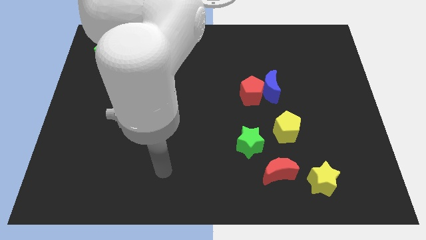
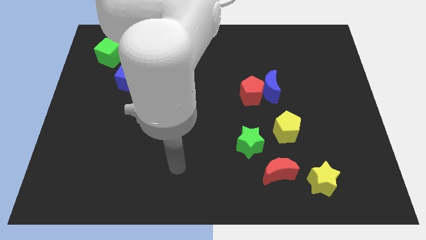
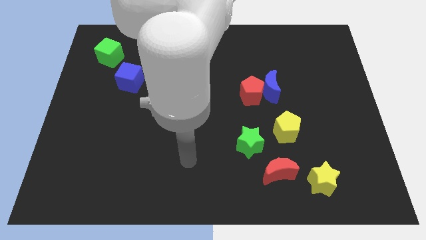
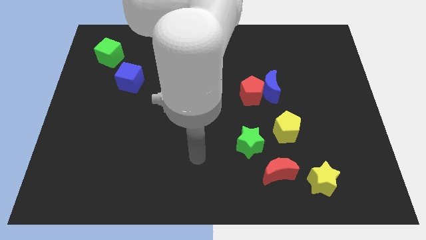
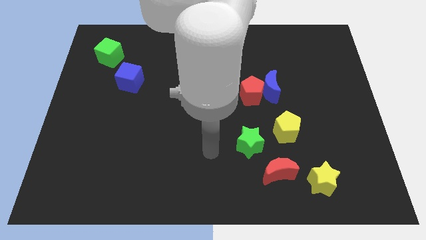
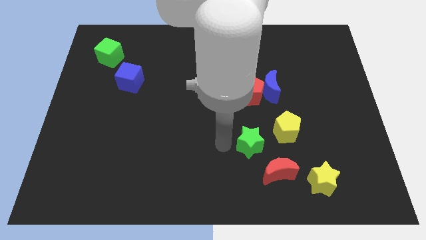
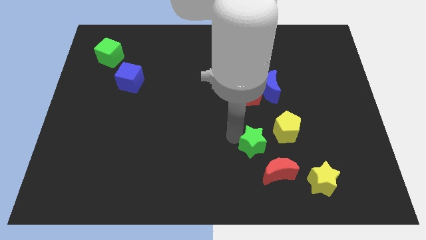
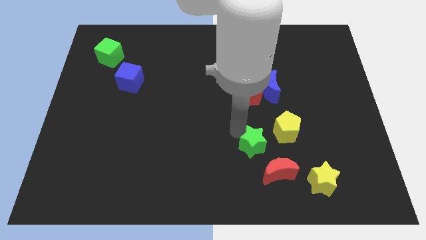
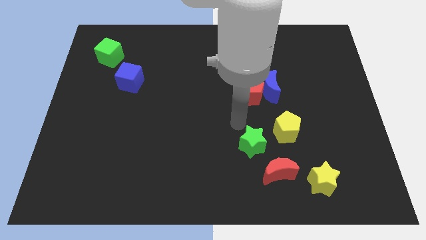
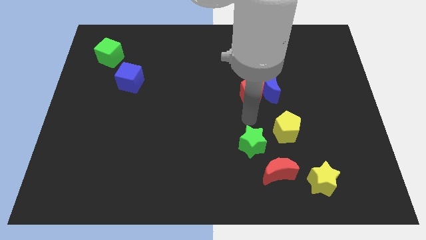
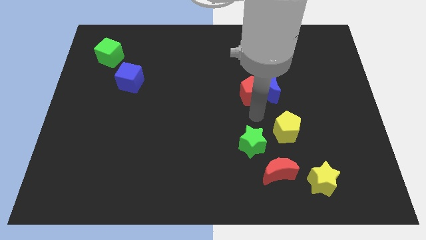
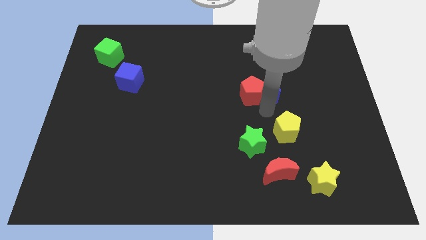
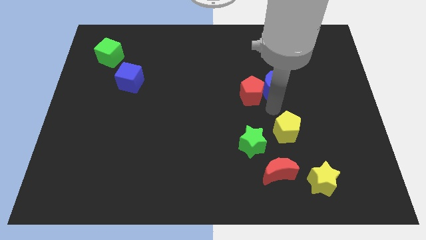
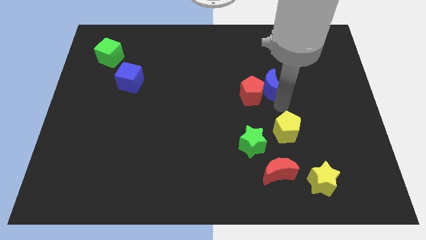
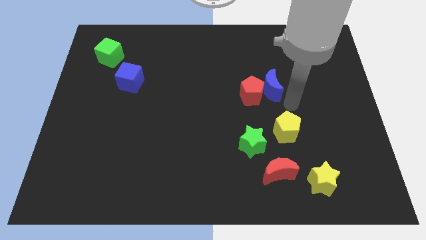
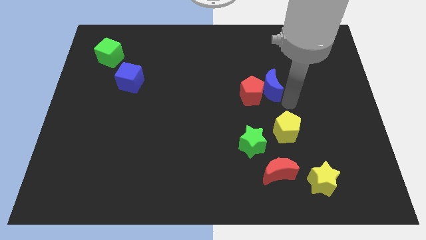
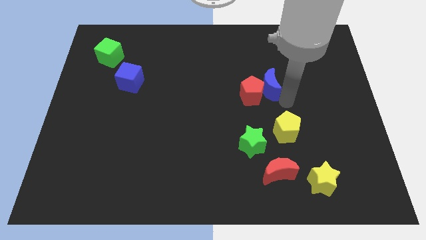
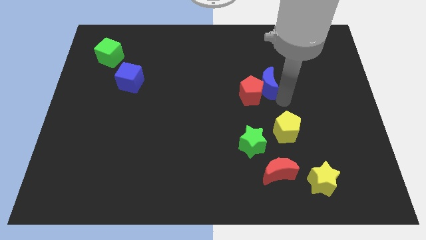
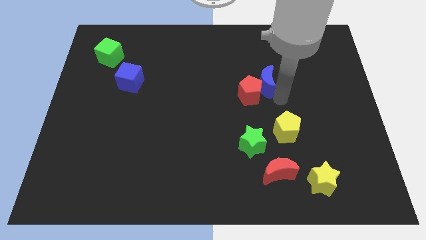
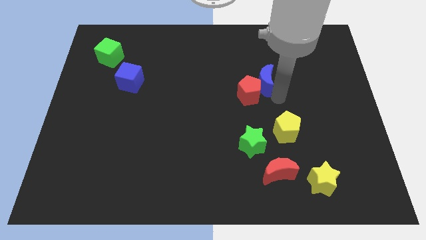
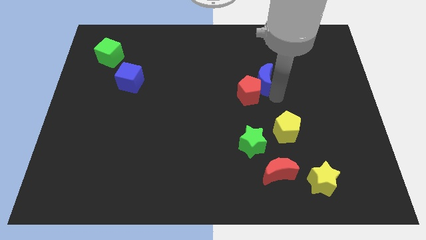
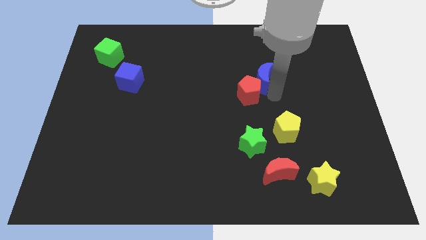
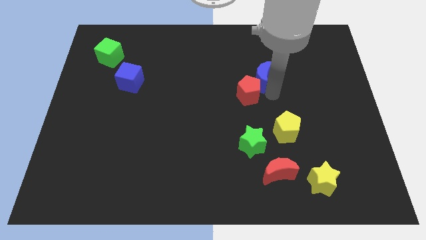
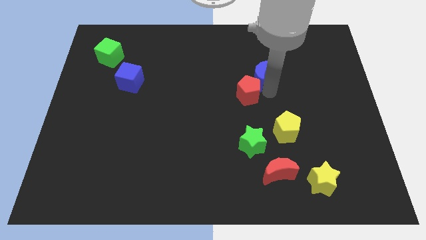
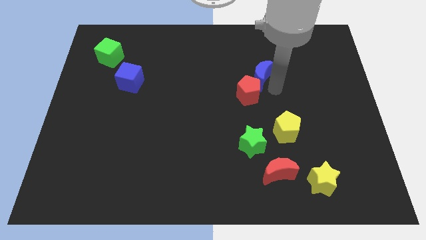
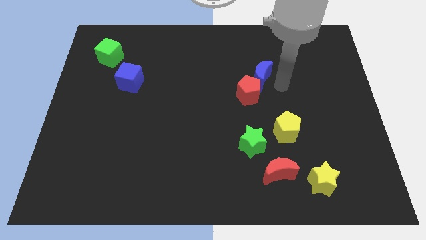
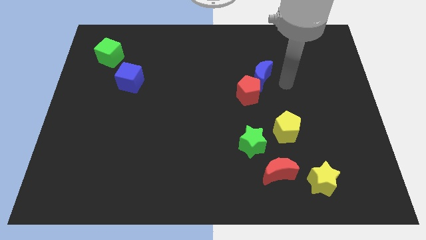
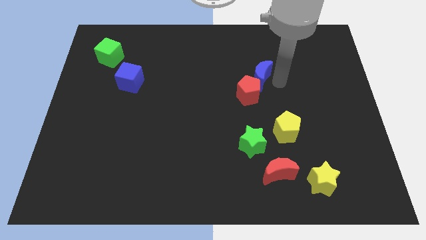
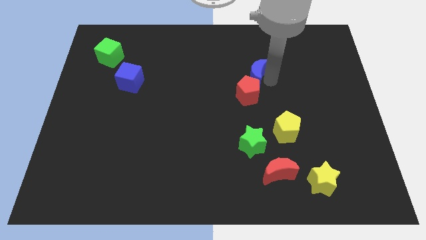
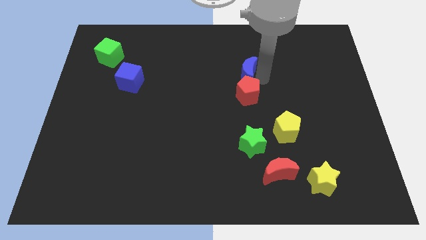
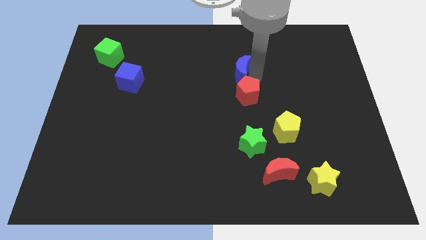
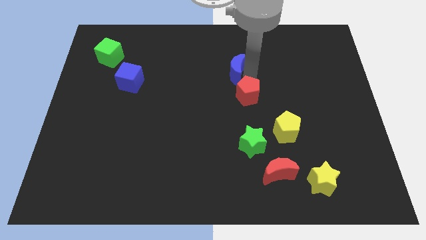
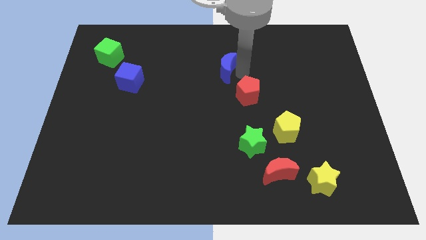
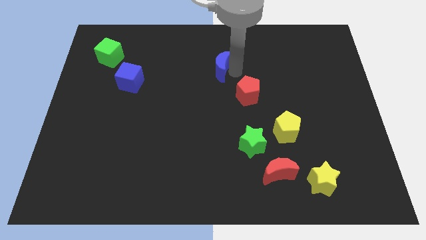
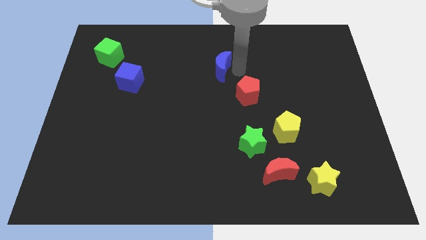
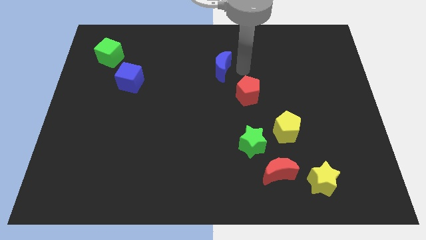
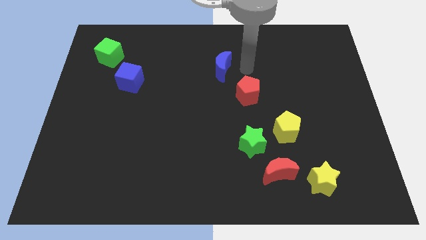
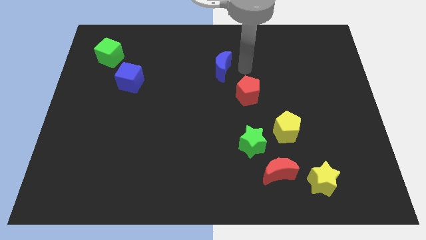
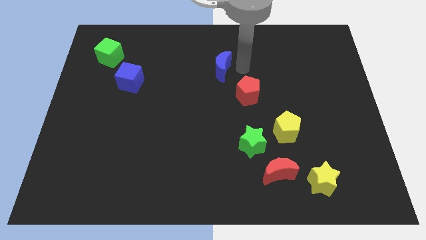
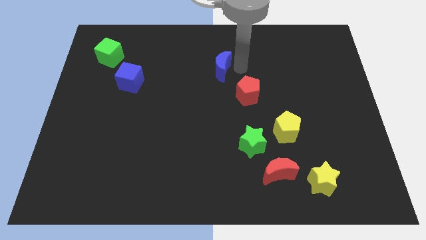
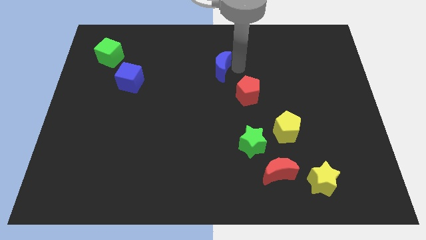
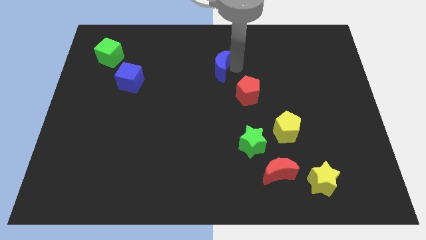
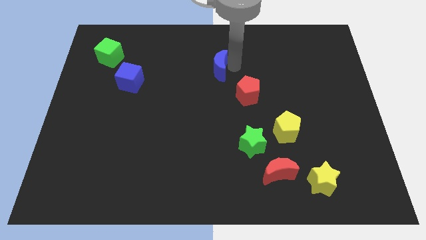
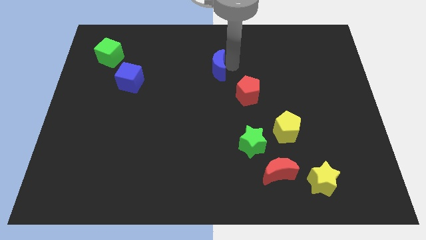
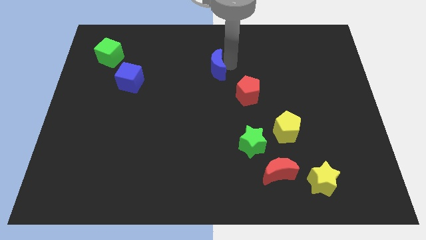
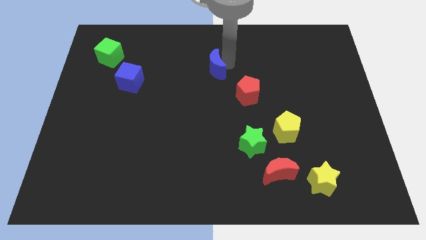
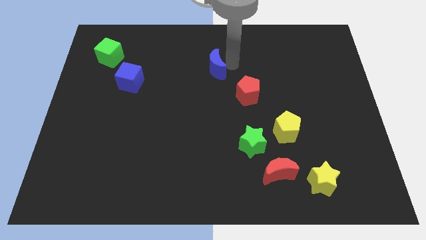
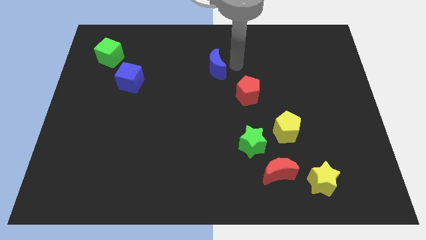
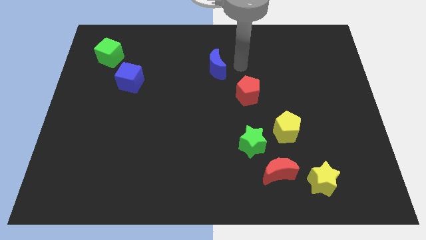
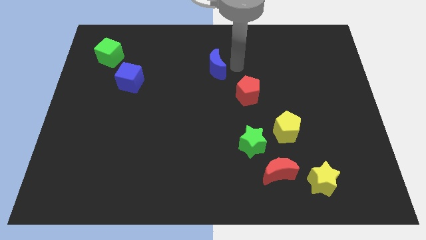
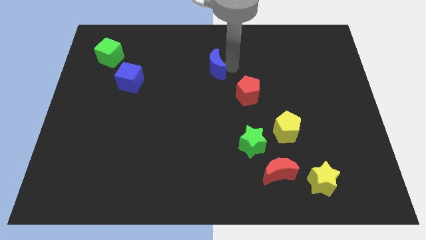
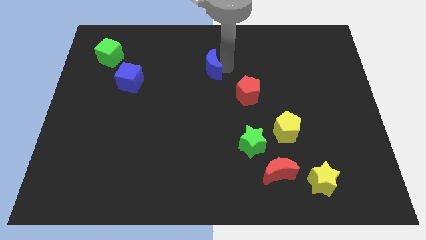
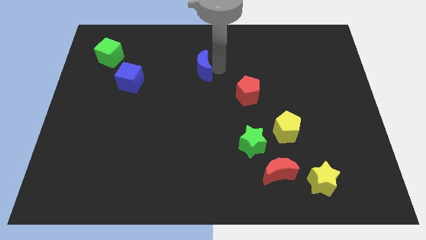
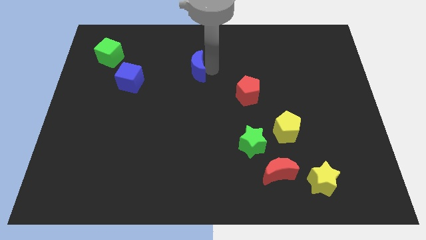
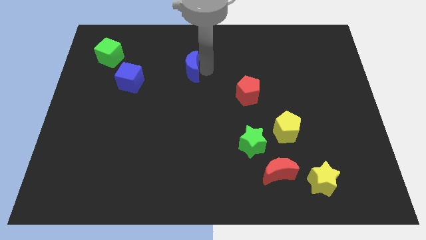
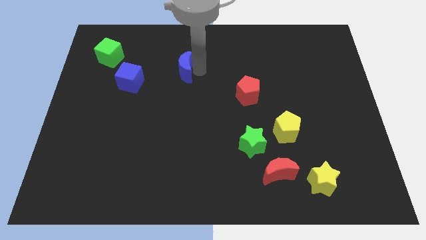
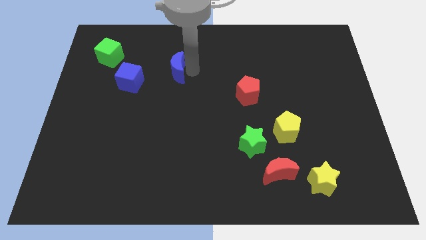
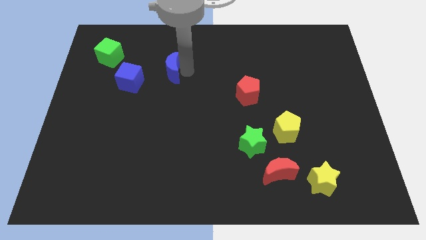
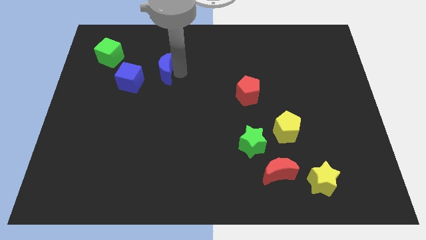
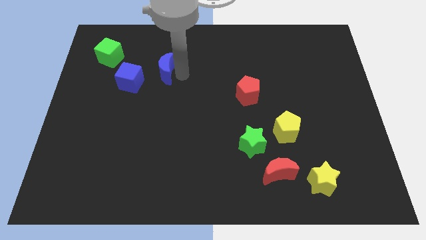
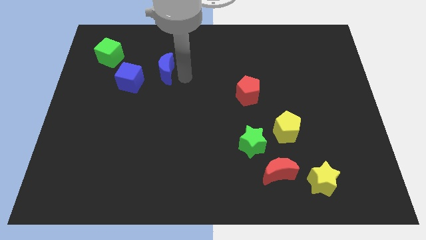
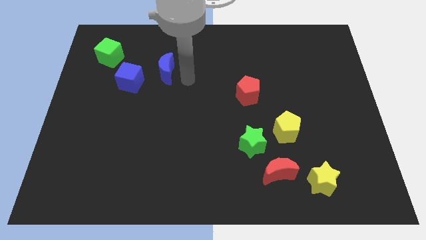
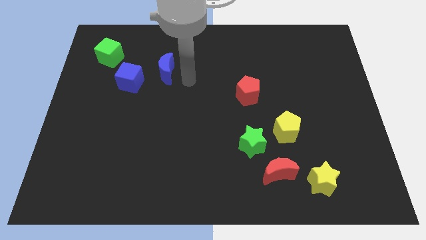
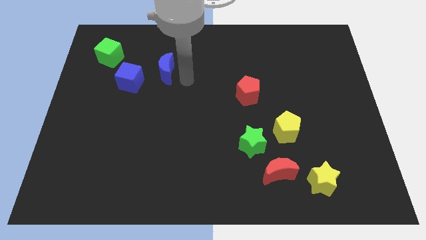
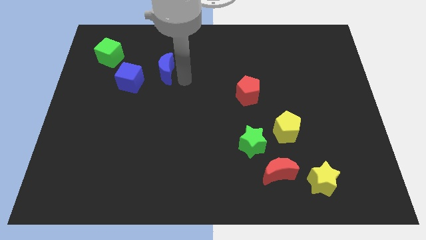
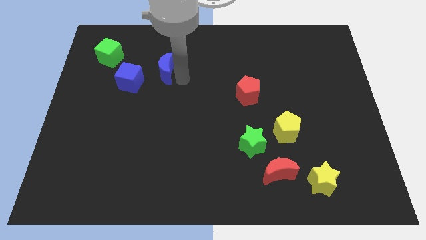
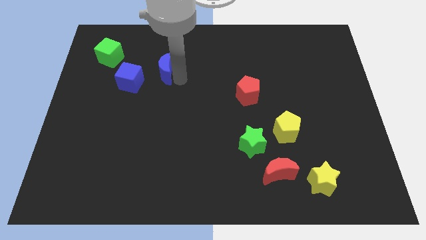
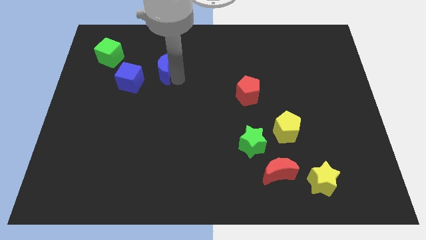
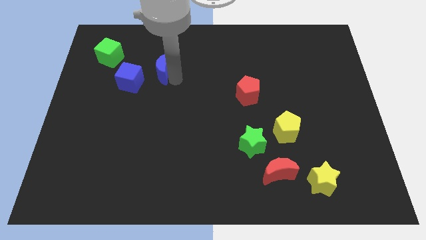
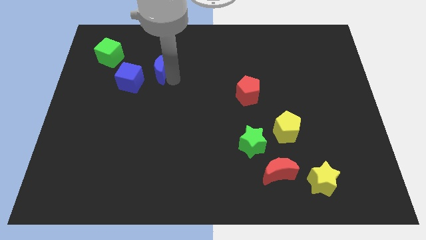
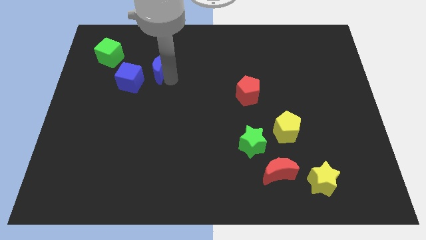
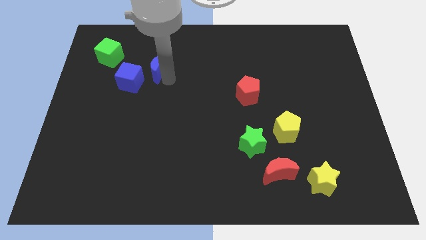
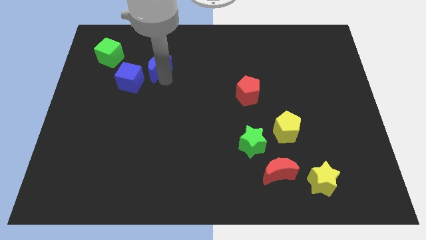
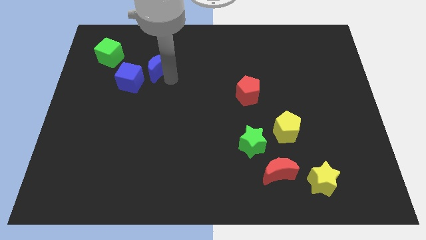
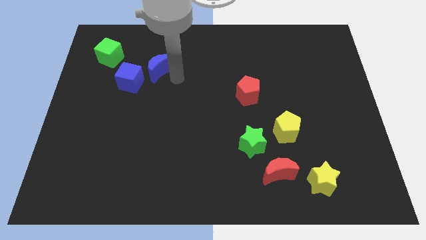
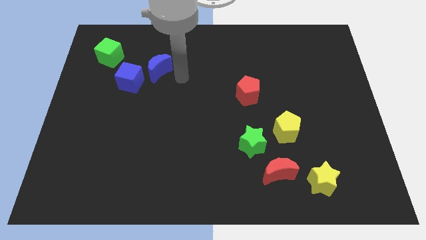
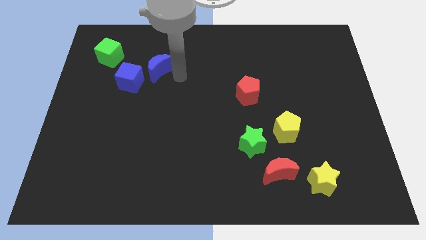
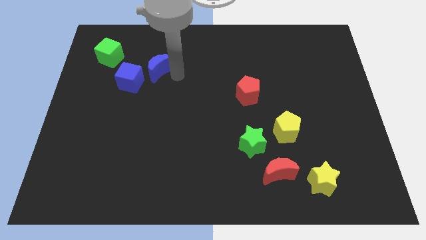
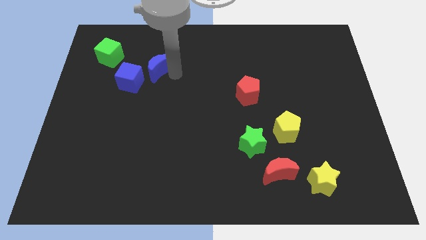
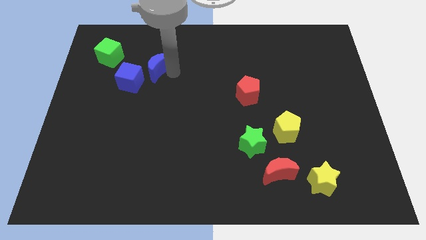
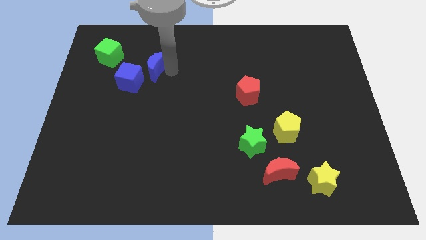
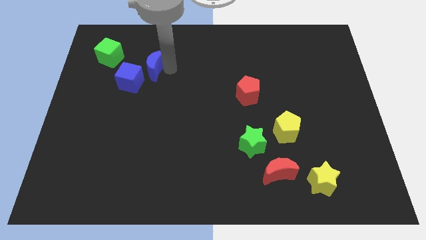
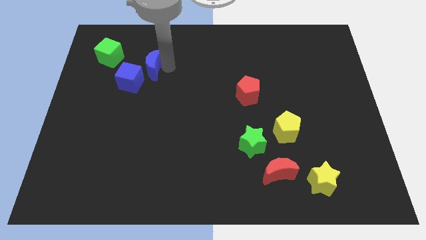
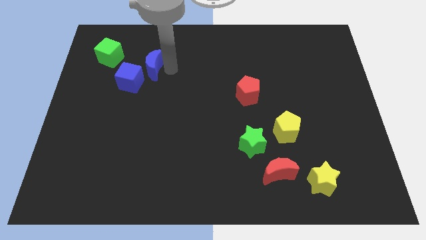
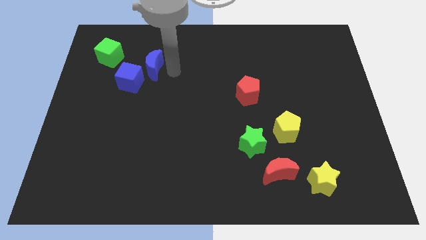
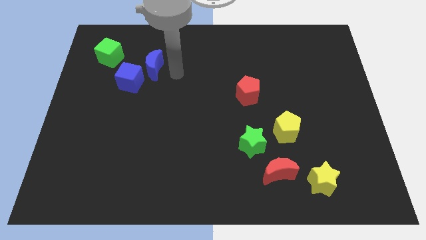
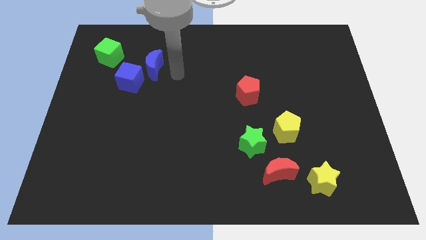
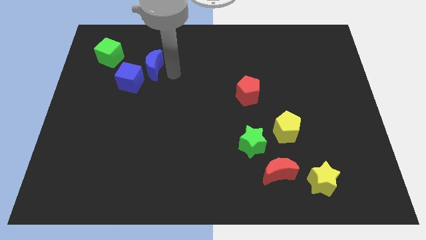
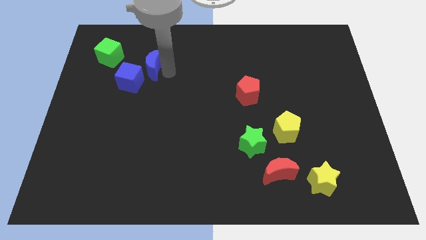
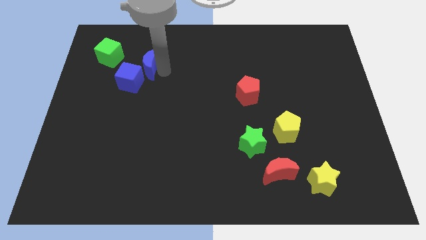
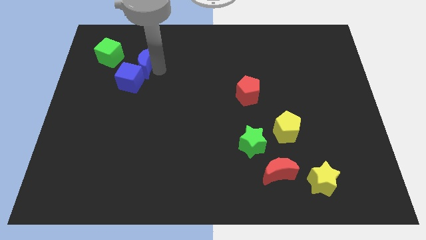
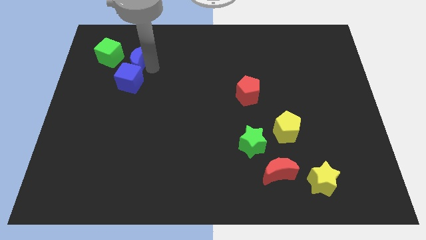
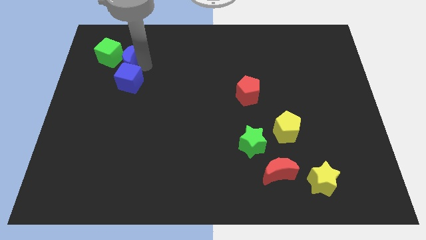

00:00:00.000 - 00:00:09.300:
slide the blue moon next to the green cube
